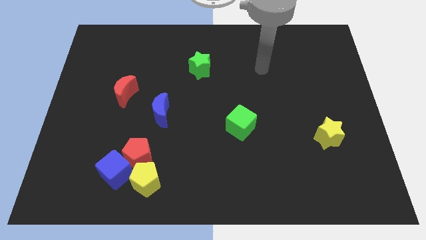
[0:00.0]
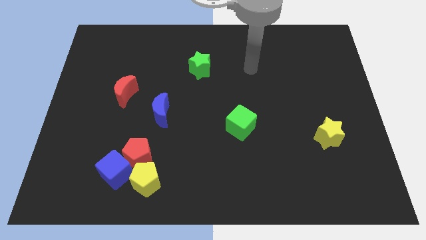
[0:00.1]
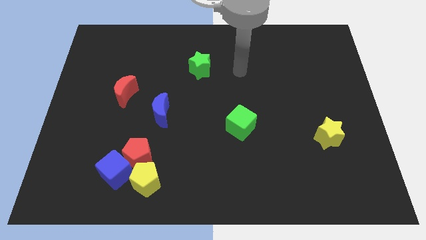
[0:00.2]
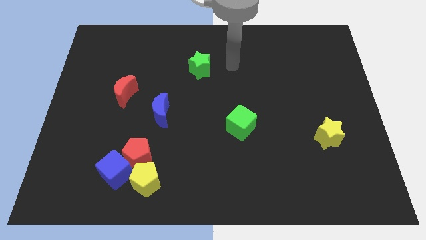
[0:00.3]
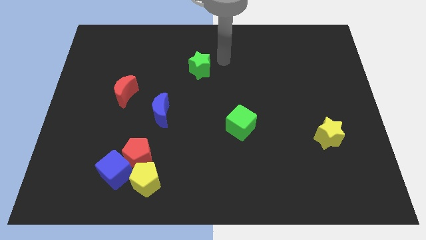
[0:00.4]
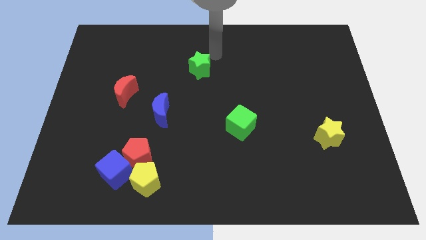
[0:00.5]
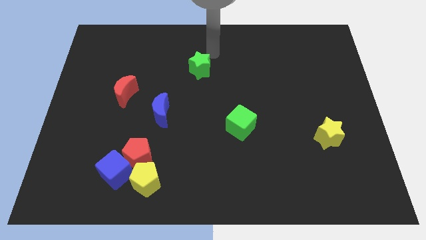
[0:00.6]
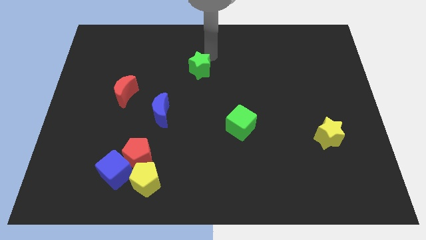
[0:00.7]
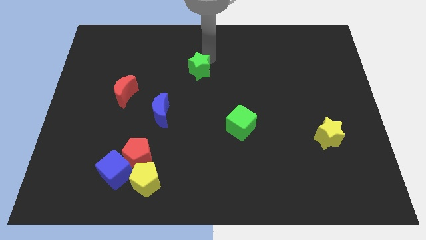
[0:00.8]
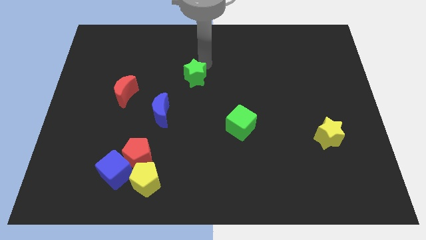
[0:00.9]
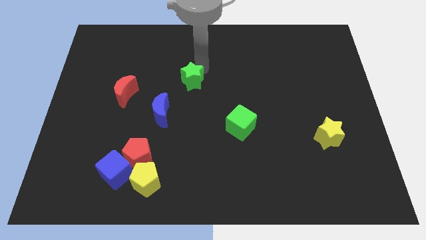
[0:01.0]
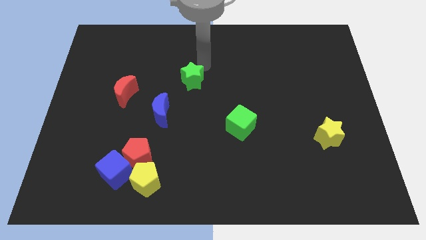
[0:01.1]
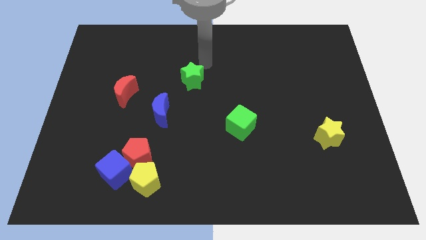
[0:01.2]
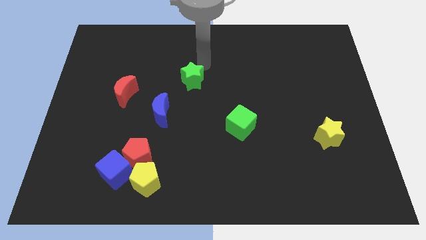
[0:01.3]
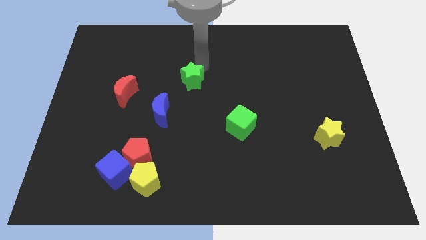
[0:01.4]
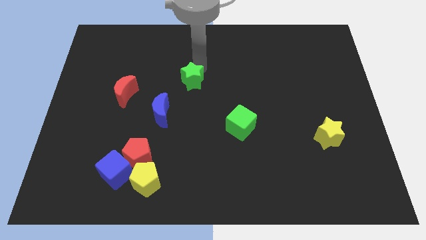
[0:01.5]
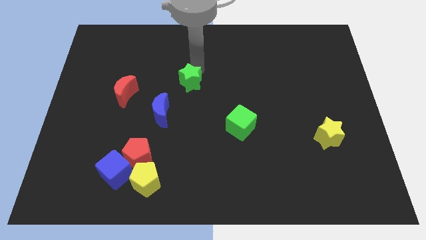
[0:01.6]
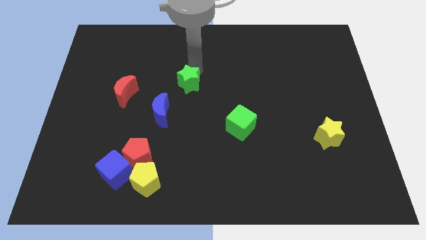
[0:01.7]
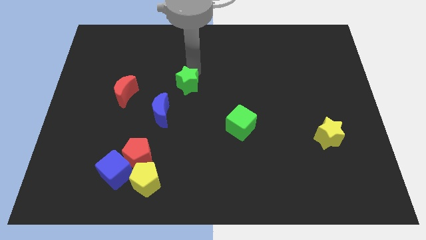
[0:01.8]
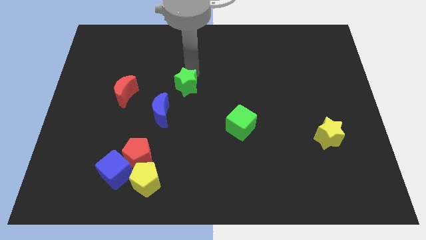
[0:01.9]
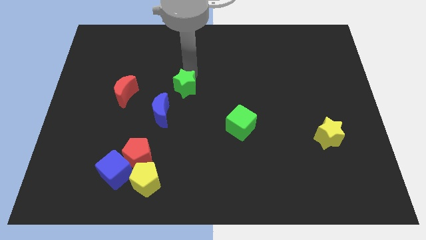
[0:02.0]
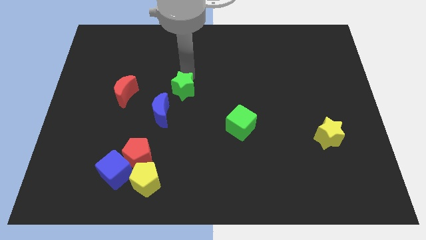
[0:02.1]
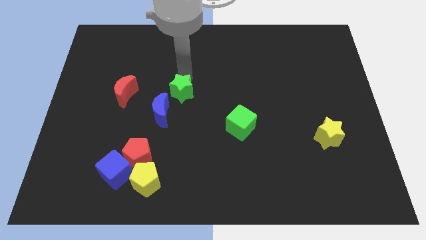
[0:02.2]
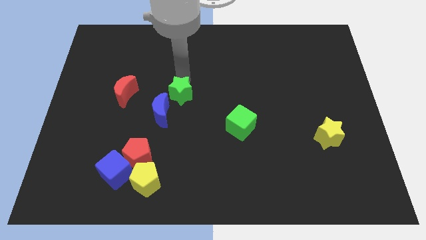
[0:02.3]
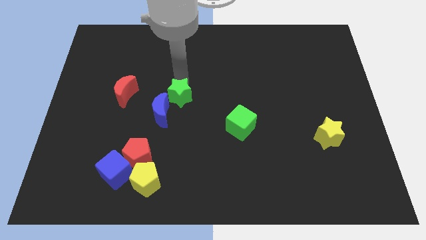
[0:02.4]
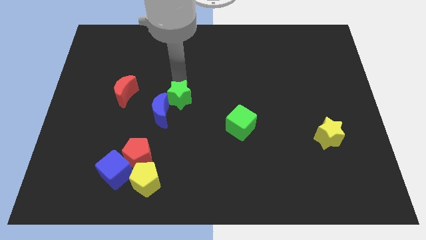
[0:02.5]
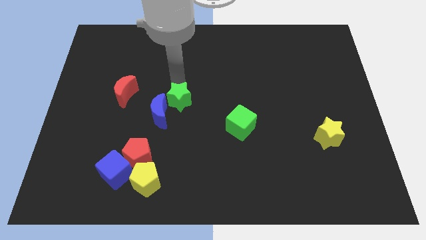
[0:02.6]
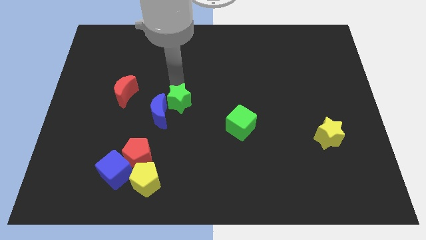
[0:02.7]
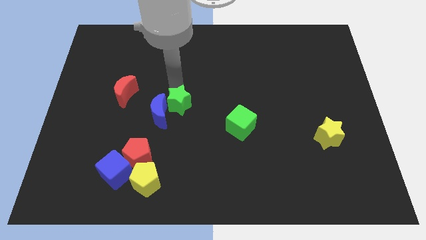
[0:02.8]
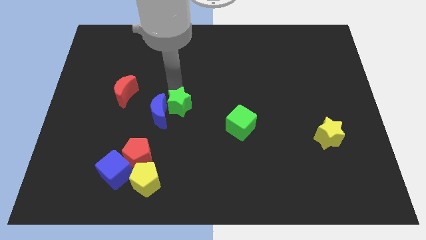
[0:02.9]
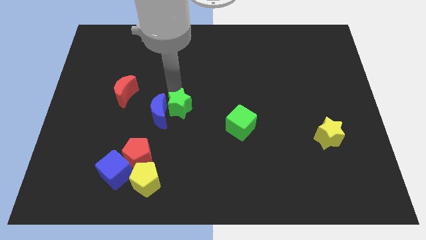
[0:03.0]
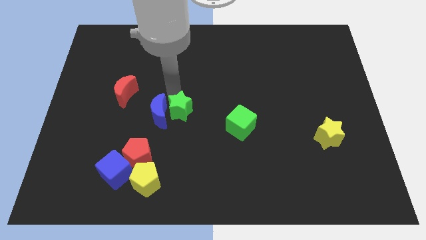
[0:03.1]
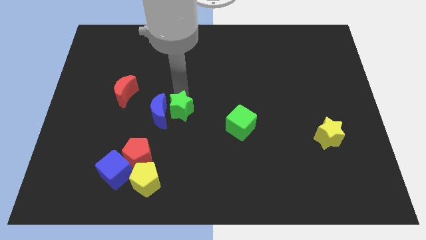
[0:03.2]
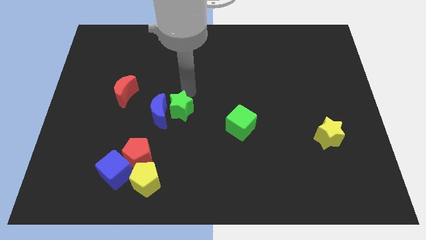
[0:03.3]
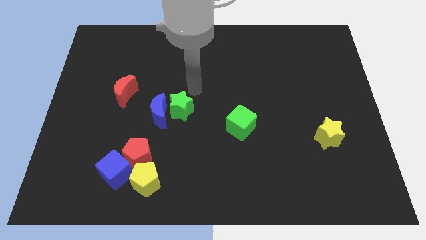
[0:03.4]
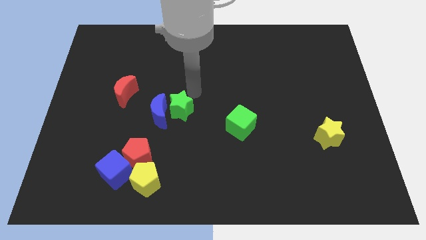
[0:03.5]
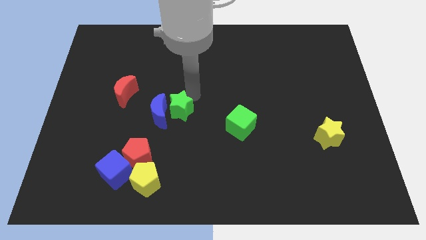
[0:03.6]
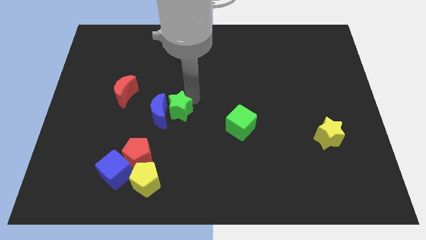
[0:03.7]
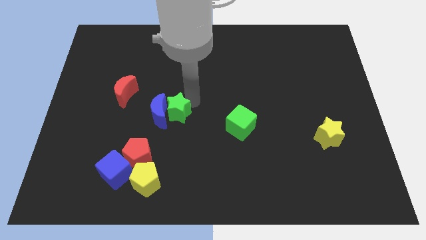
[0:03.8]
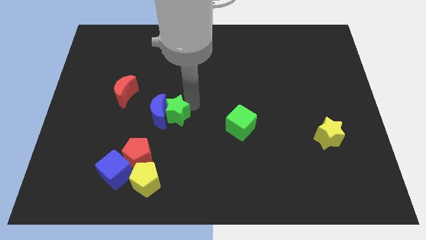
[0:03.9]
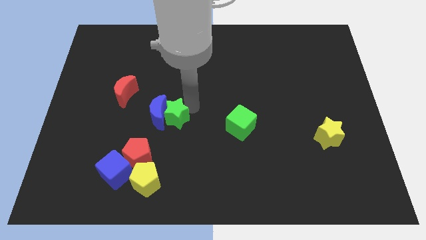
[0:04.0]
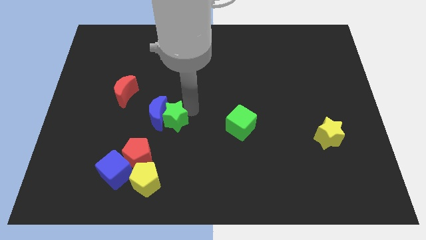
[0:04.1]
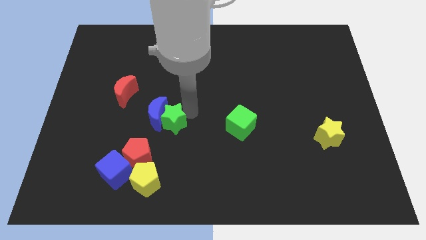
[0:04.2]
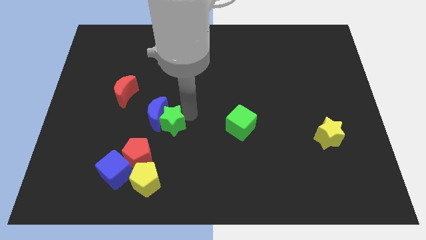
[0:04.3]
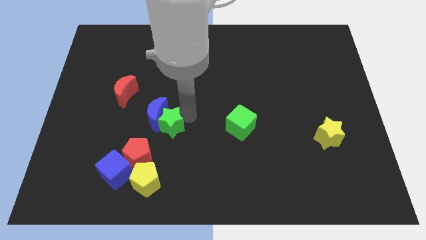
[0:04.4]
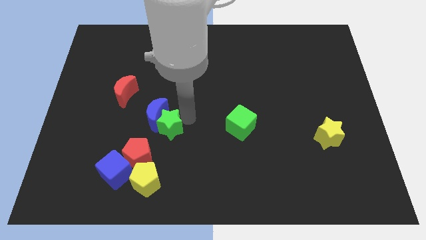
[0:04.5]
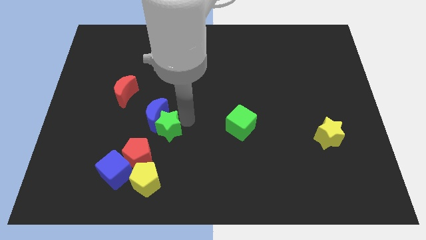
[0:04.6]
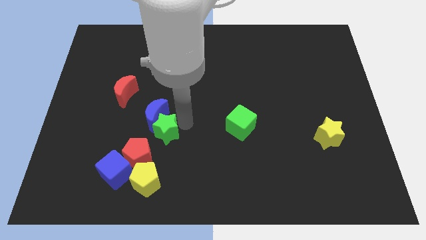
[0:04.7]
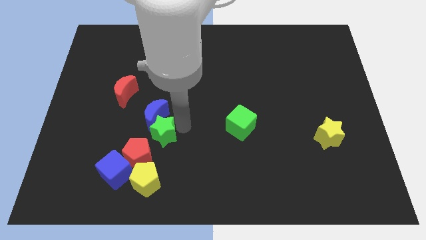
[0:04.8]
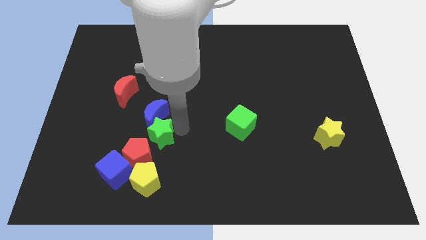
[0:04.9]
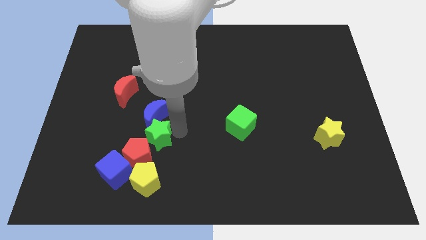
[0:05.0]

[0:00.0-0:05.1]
put the green star to the red pentagon

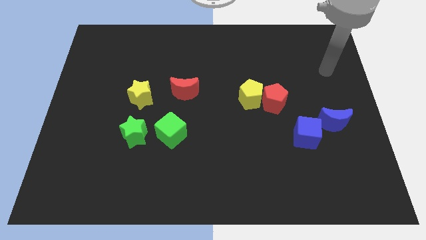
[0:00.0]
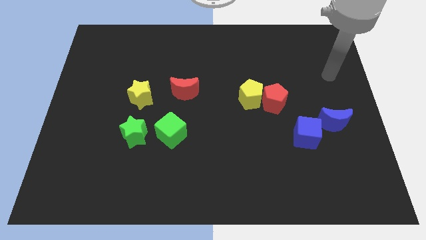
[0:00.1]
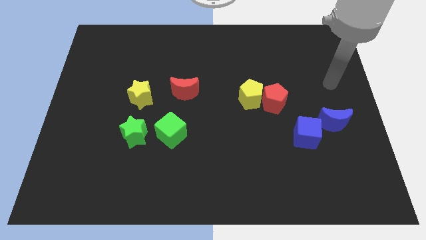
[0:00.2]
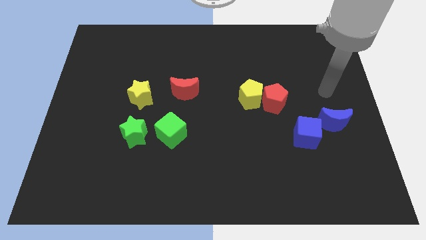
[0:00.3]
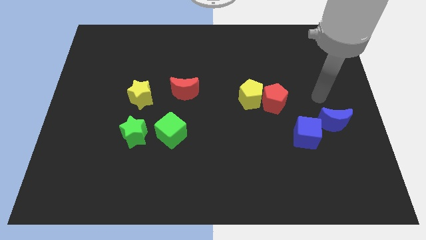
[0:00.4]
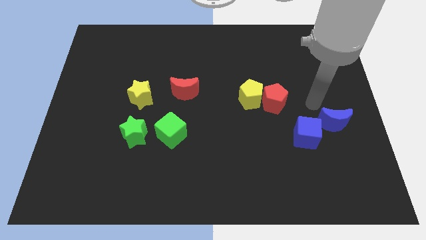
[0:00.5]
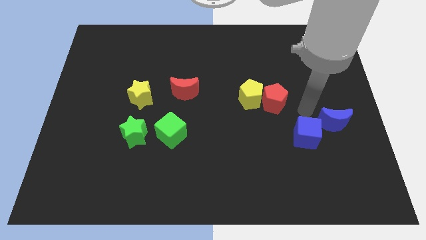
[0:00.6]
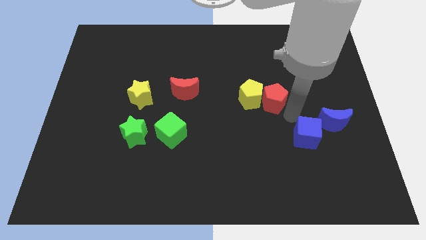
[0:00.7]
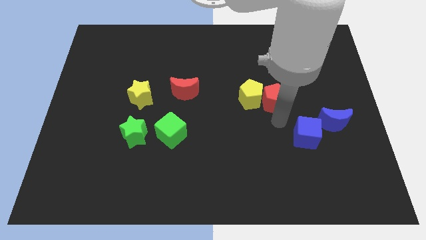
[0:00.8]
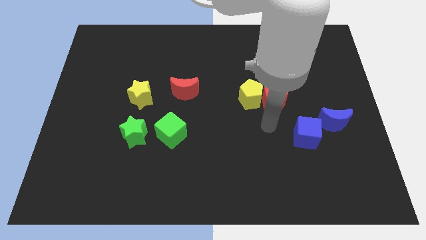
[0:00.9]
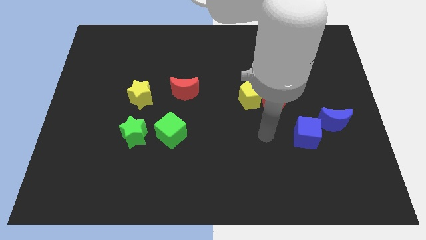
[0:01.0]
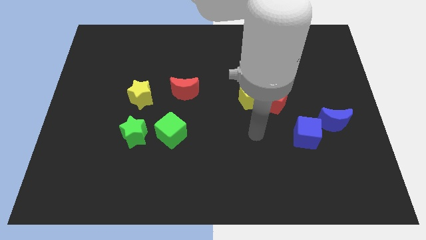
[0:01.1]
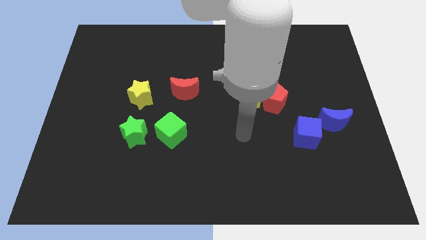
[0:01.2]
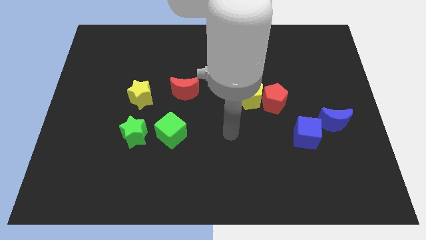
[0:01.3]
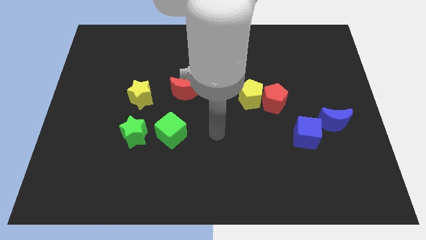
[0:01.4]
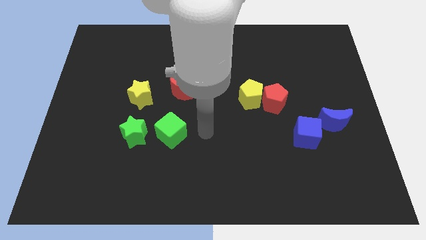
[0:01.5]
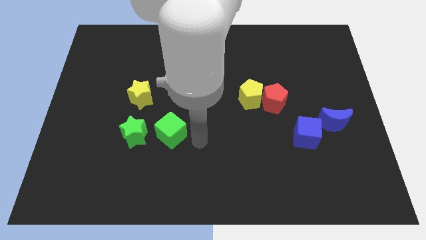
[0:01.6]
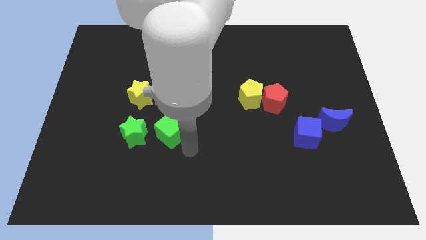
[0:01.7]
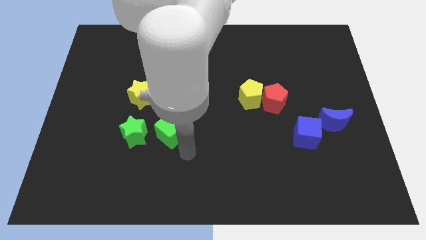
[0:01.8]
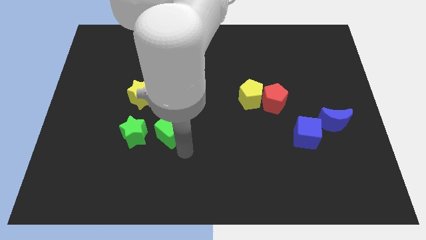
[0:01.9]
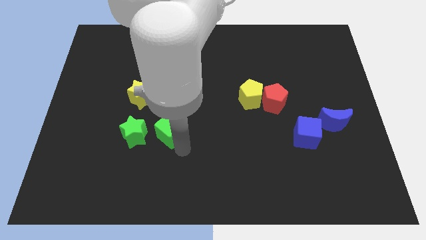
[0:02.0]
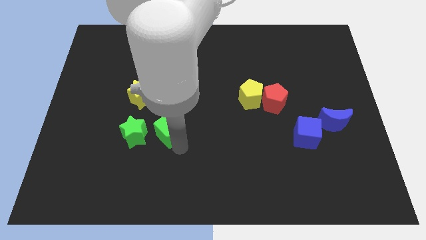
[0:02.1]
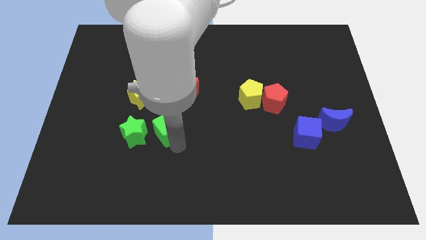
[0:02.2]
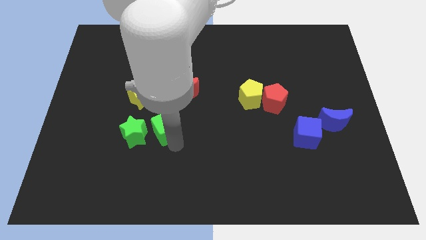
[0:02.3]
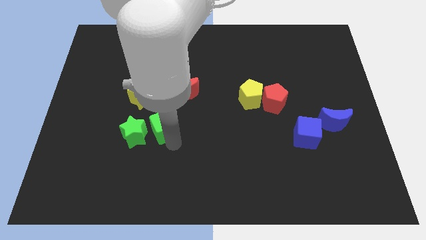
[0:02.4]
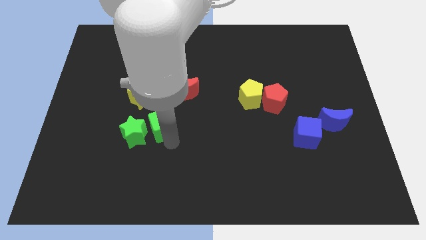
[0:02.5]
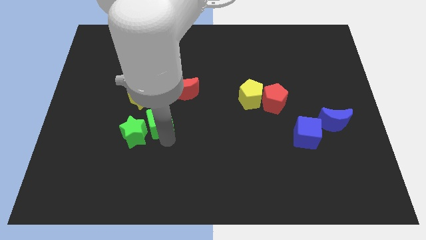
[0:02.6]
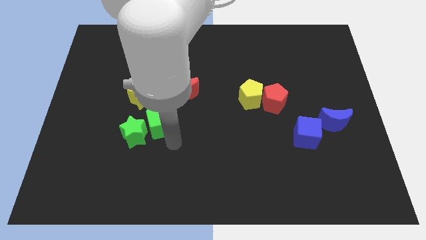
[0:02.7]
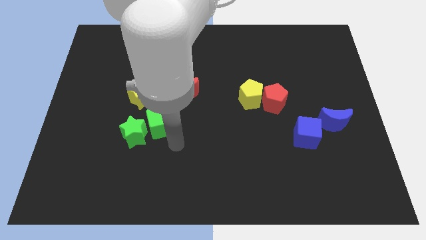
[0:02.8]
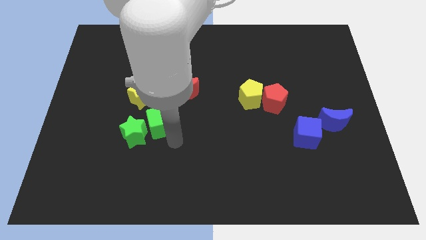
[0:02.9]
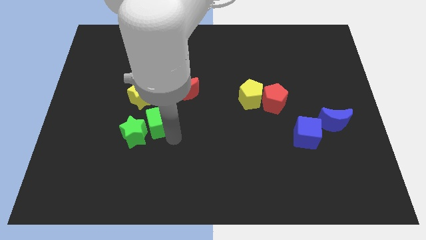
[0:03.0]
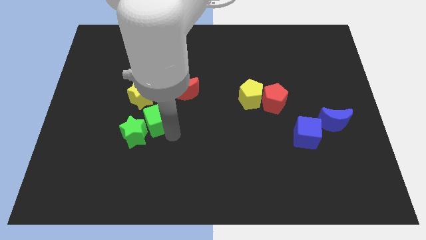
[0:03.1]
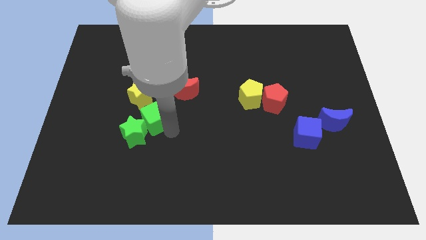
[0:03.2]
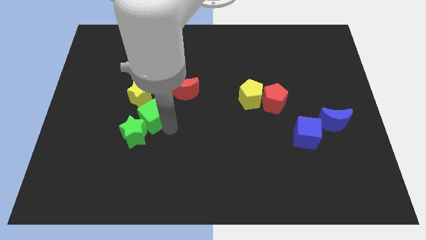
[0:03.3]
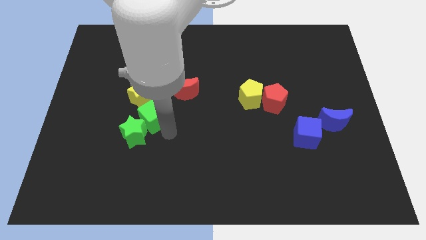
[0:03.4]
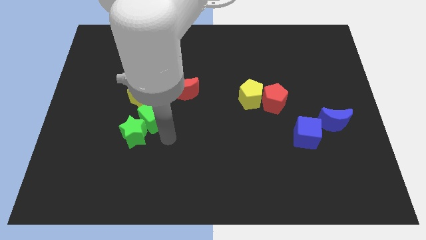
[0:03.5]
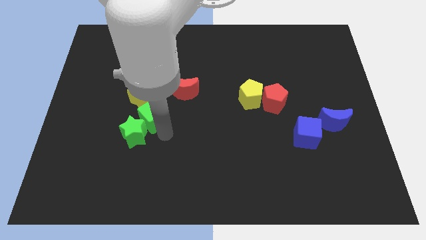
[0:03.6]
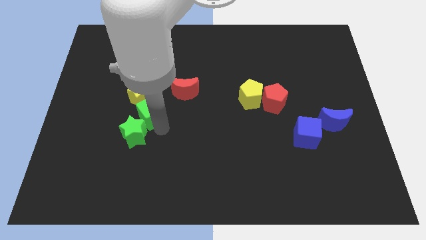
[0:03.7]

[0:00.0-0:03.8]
put the green cube close to the yellow star
